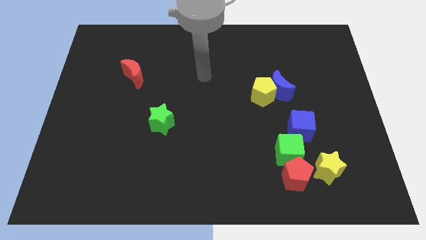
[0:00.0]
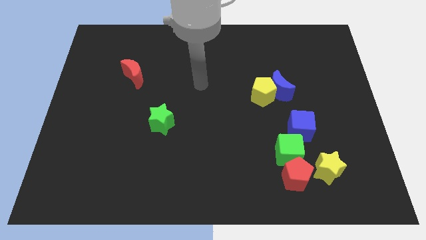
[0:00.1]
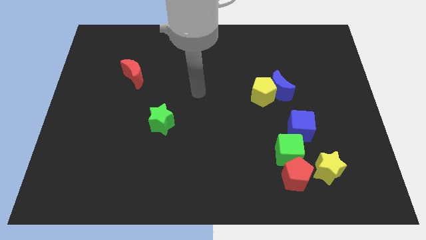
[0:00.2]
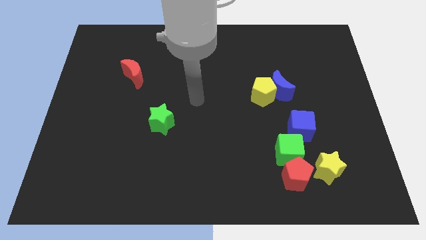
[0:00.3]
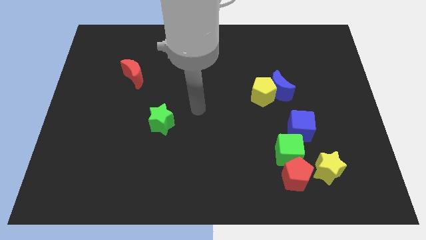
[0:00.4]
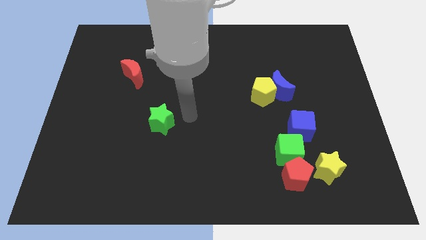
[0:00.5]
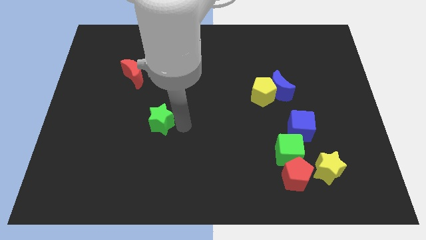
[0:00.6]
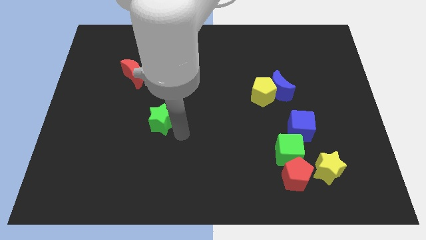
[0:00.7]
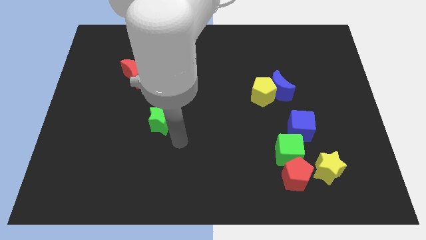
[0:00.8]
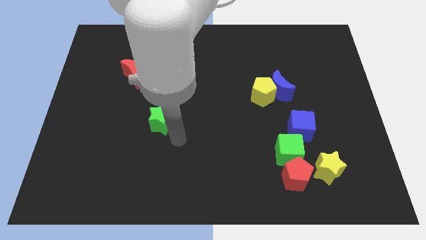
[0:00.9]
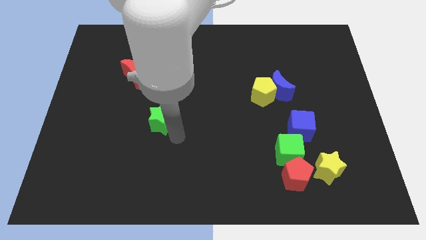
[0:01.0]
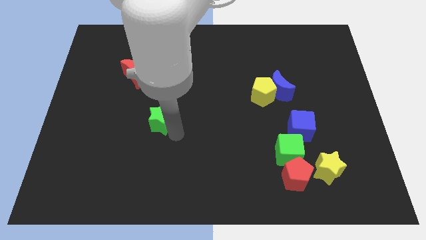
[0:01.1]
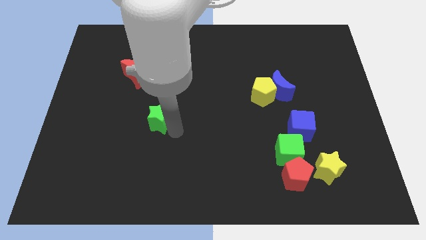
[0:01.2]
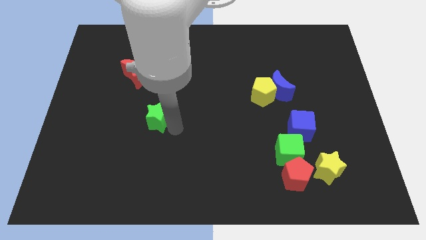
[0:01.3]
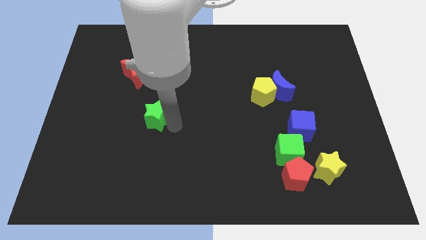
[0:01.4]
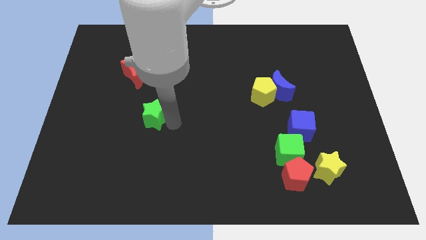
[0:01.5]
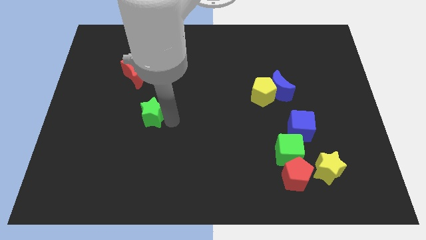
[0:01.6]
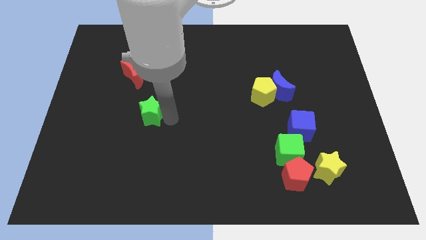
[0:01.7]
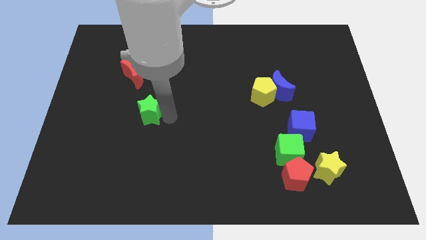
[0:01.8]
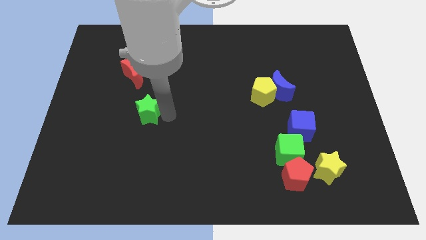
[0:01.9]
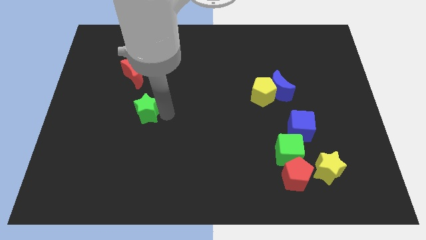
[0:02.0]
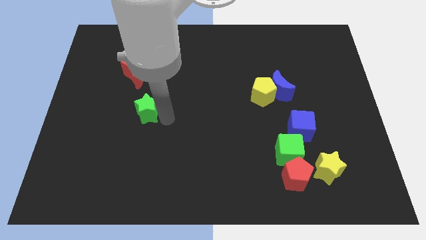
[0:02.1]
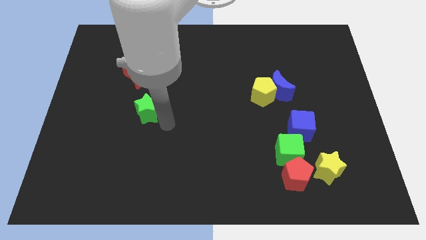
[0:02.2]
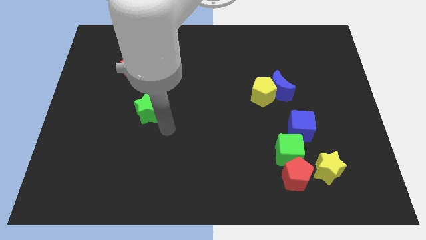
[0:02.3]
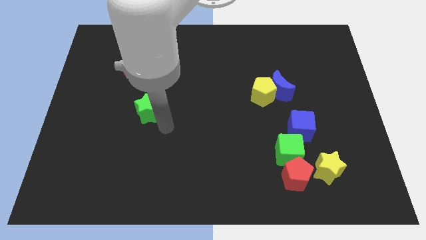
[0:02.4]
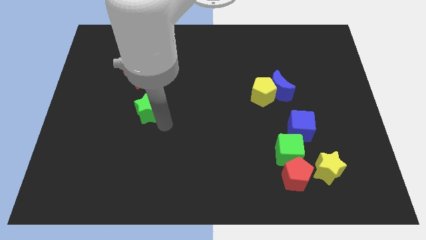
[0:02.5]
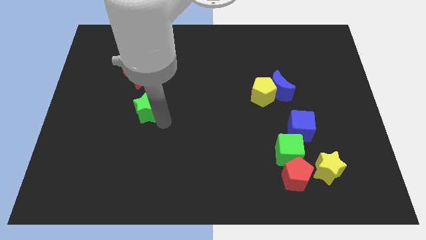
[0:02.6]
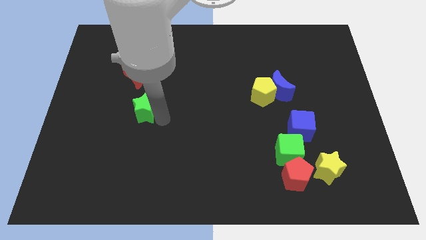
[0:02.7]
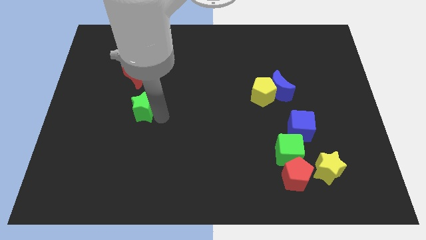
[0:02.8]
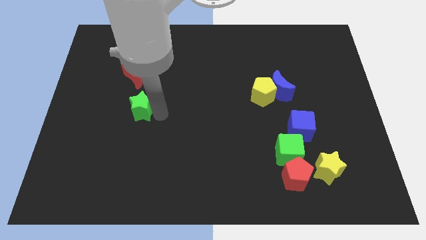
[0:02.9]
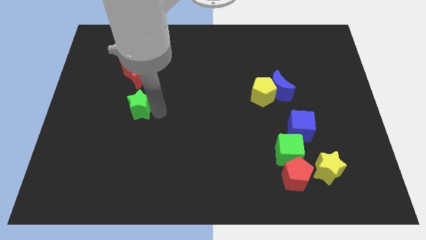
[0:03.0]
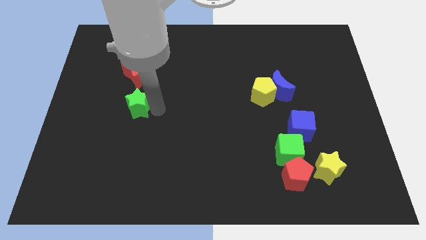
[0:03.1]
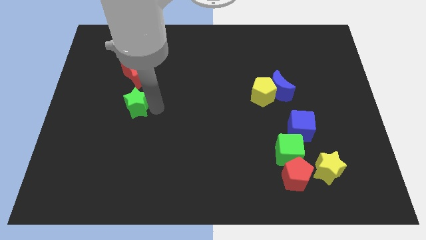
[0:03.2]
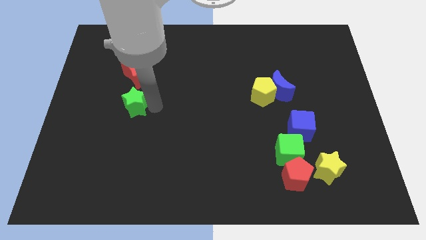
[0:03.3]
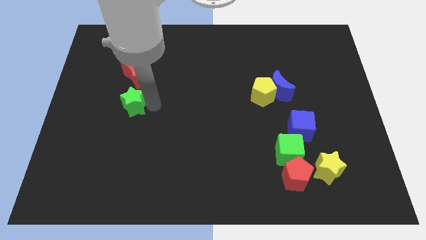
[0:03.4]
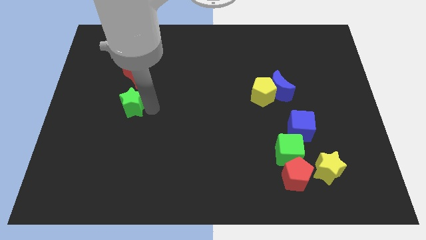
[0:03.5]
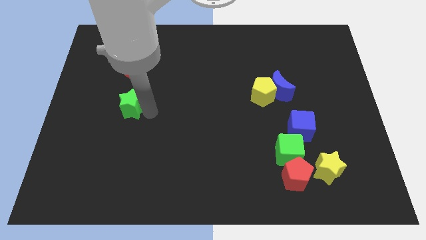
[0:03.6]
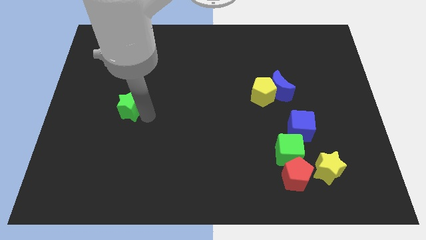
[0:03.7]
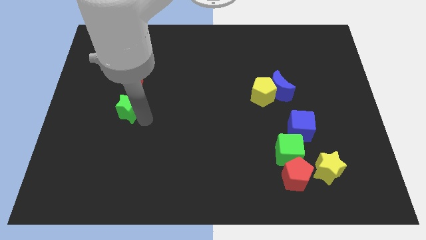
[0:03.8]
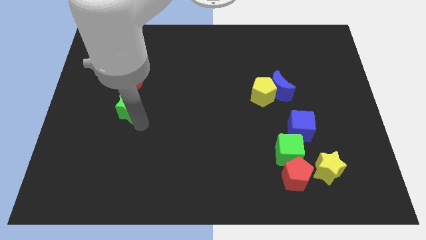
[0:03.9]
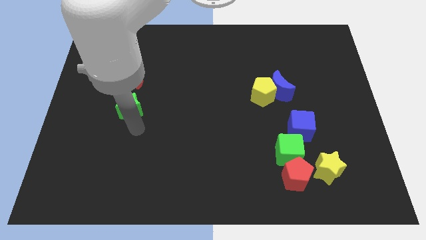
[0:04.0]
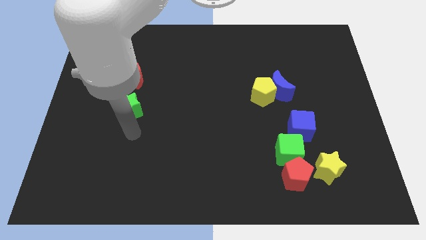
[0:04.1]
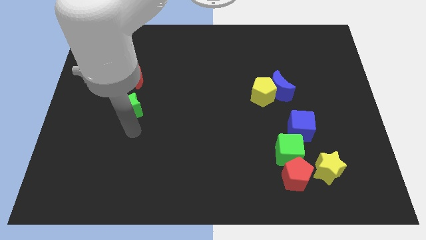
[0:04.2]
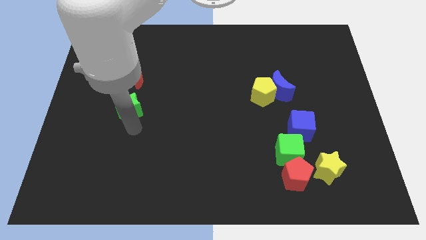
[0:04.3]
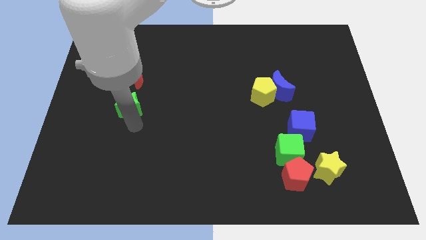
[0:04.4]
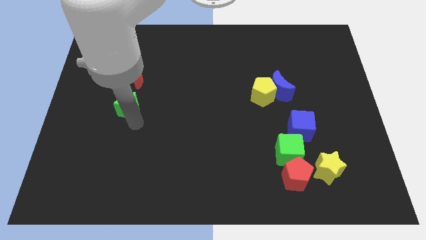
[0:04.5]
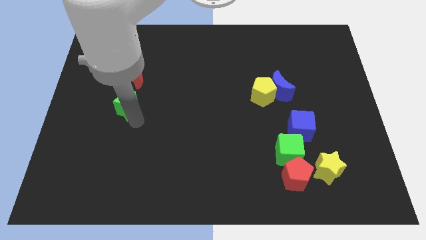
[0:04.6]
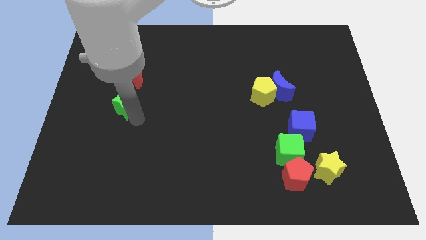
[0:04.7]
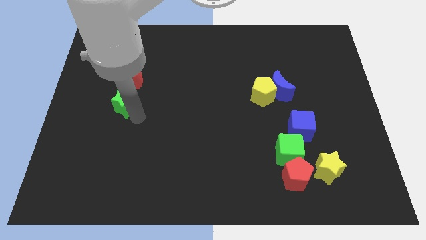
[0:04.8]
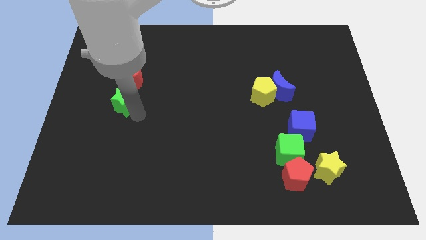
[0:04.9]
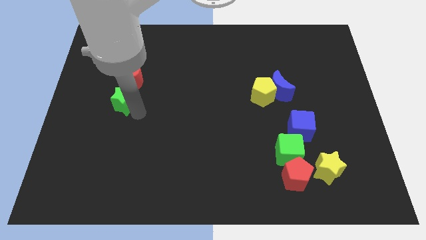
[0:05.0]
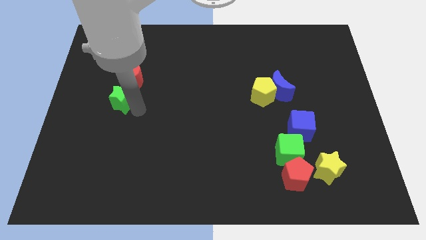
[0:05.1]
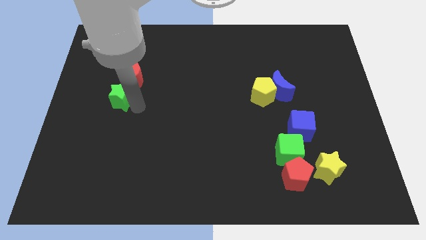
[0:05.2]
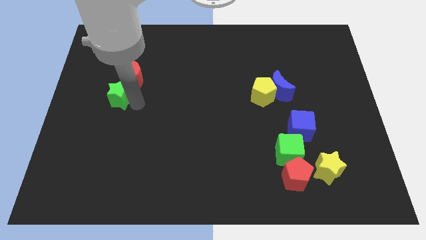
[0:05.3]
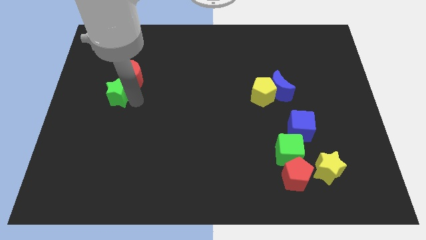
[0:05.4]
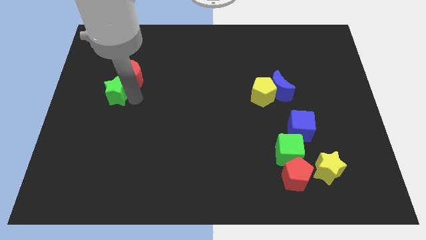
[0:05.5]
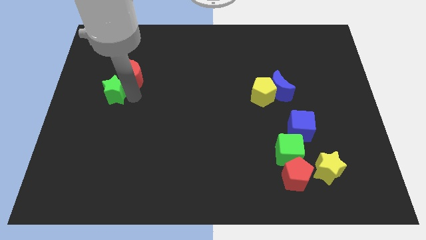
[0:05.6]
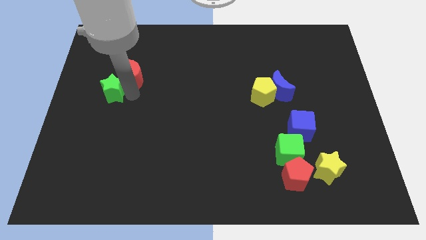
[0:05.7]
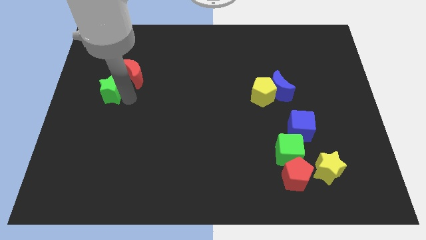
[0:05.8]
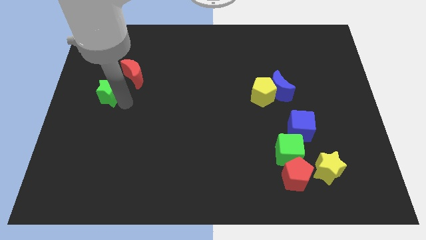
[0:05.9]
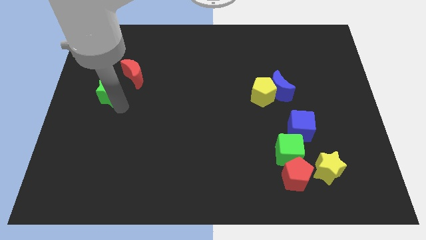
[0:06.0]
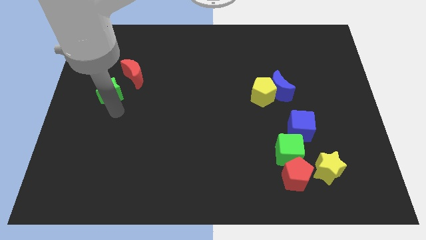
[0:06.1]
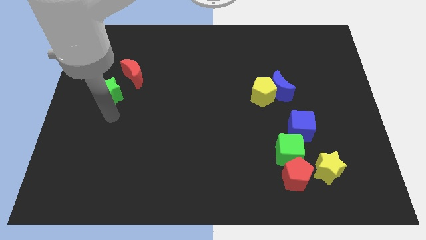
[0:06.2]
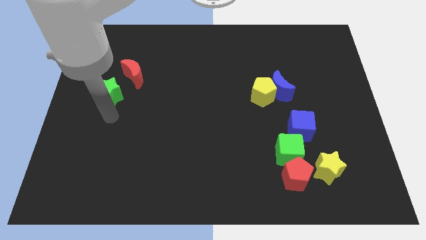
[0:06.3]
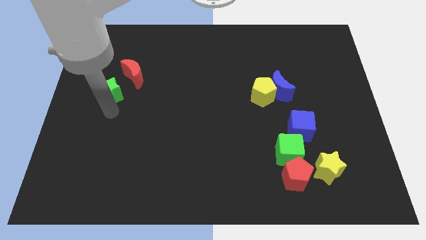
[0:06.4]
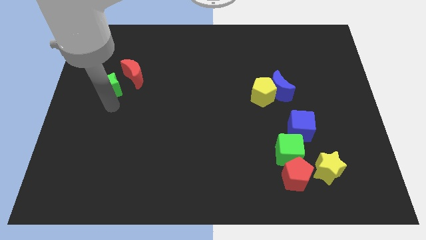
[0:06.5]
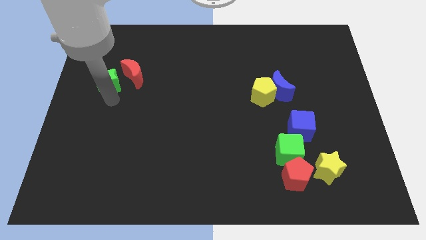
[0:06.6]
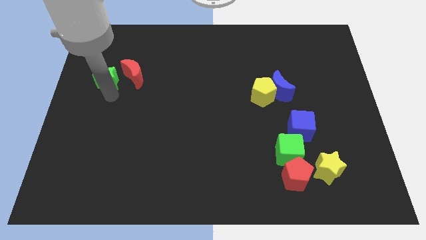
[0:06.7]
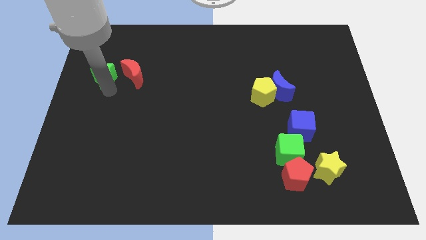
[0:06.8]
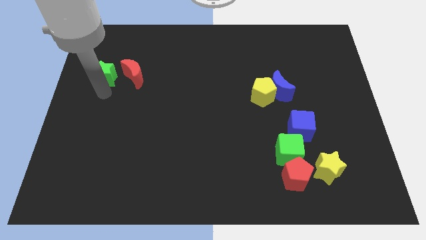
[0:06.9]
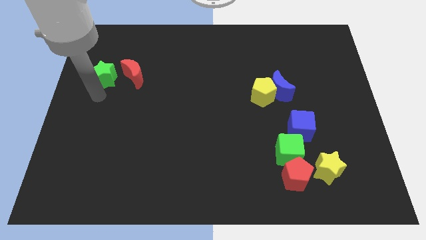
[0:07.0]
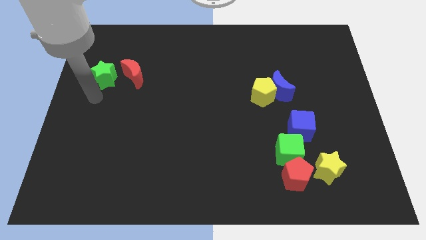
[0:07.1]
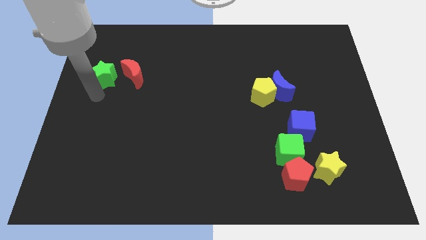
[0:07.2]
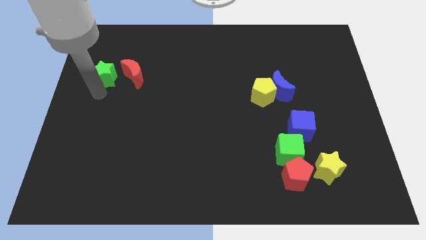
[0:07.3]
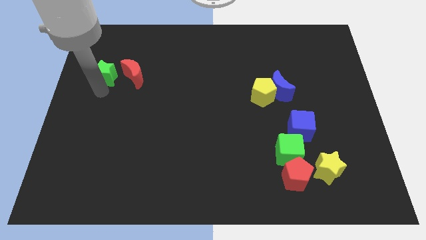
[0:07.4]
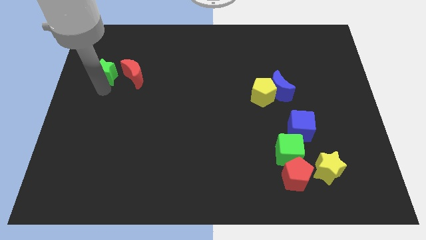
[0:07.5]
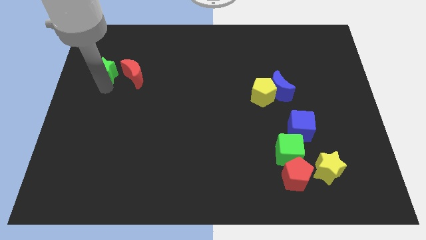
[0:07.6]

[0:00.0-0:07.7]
move the green star to the top left of the red moon
